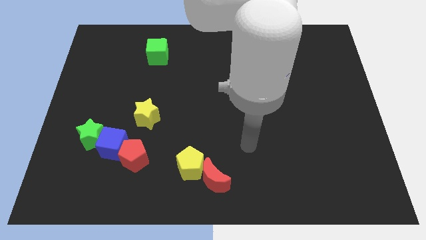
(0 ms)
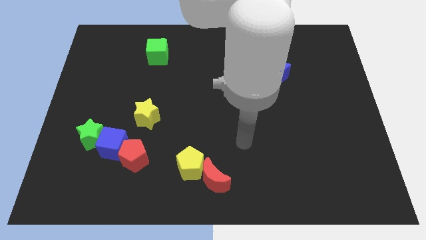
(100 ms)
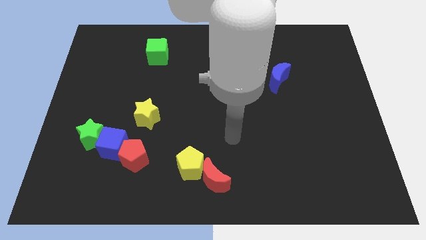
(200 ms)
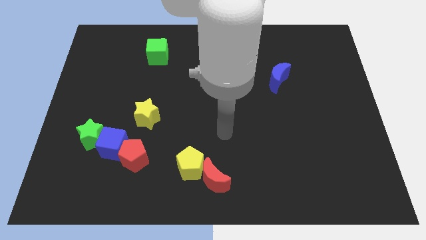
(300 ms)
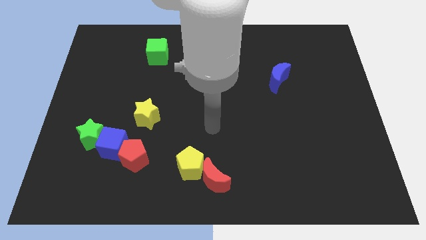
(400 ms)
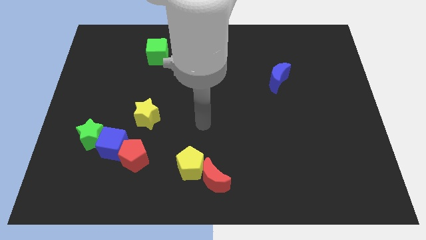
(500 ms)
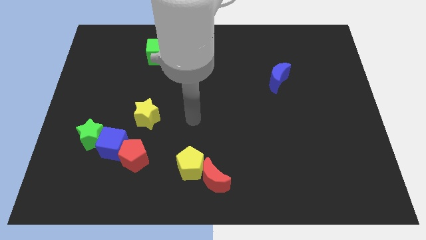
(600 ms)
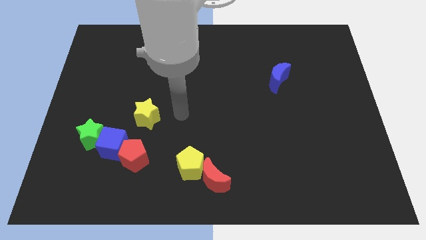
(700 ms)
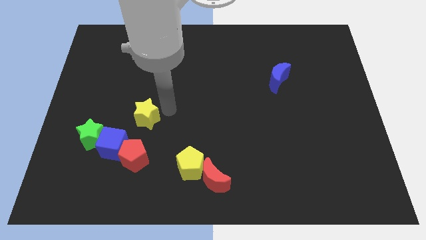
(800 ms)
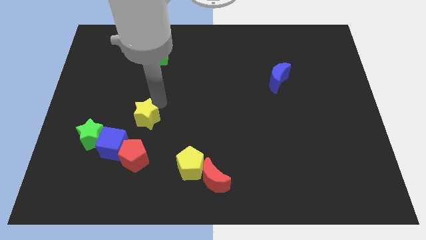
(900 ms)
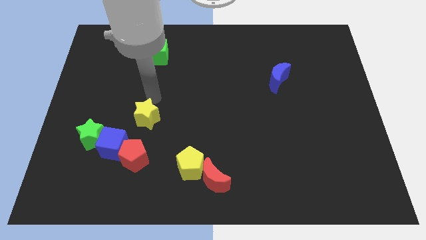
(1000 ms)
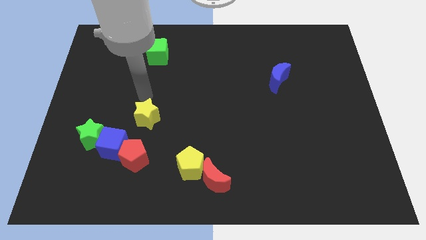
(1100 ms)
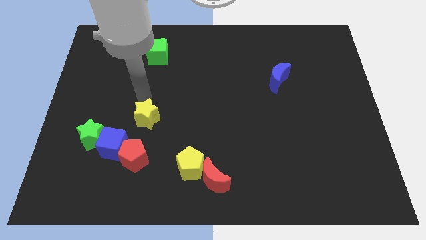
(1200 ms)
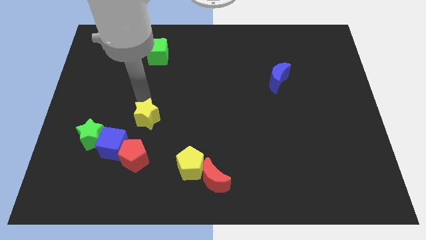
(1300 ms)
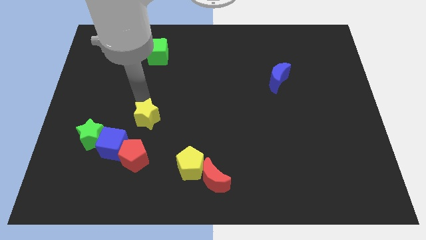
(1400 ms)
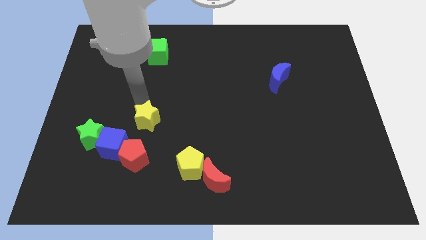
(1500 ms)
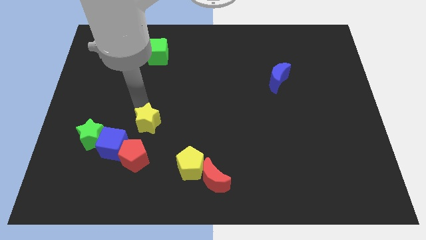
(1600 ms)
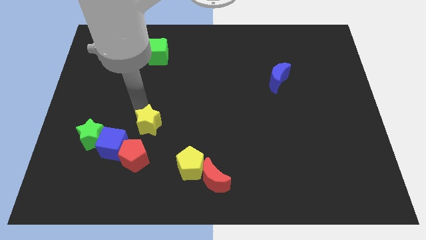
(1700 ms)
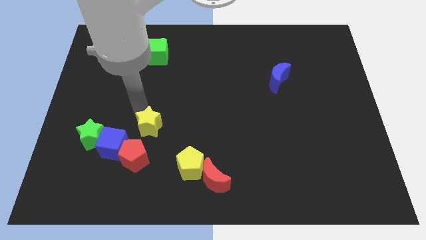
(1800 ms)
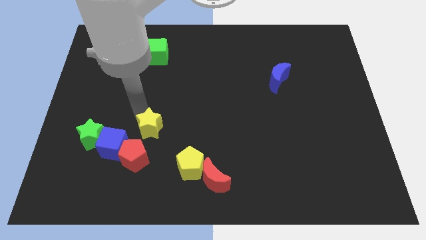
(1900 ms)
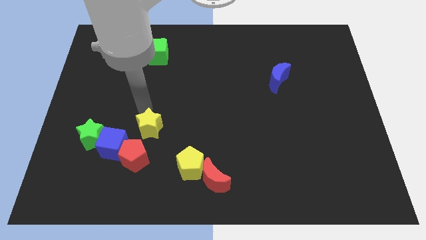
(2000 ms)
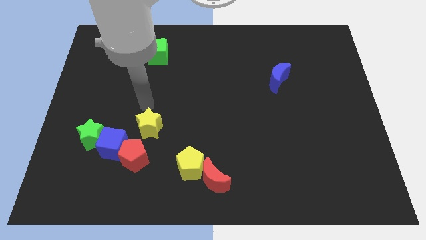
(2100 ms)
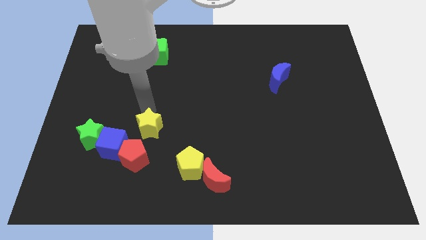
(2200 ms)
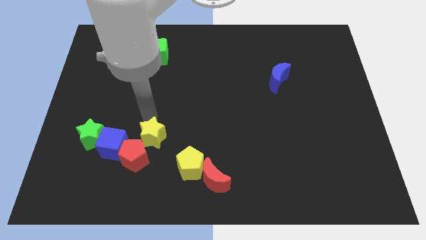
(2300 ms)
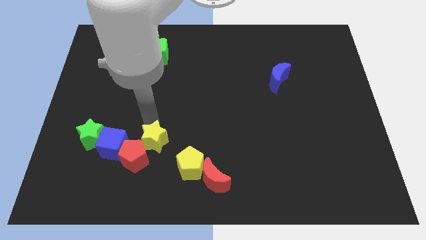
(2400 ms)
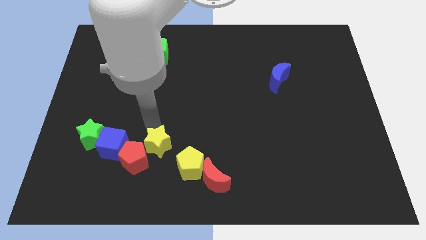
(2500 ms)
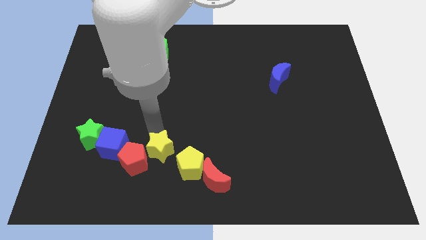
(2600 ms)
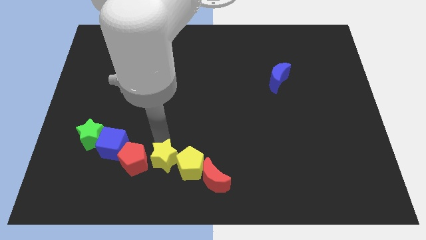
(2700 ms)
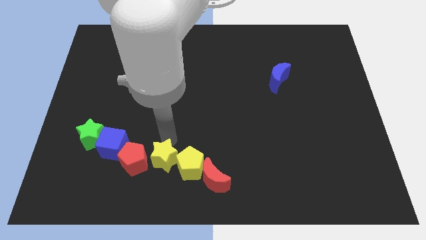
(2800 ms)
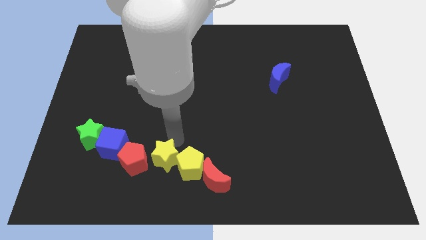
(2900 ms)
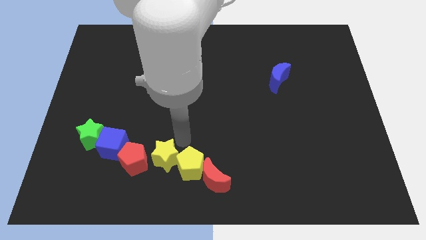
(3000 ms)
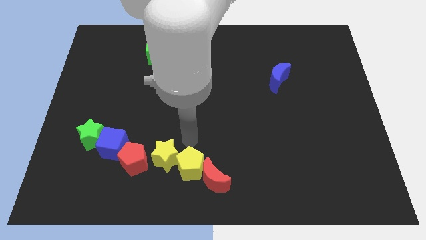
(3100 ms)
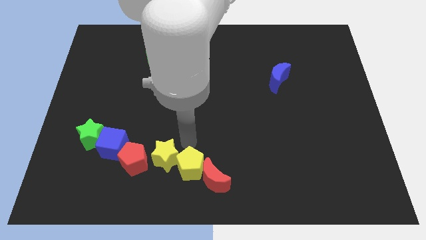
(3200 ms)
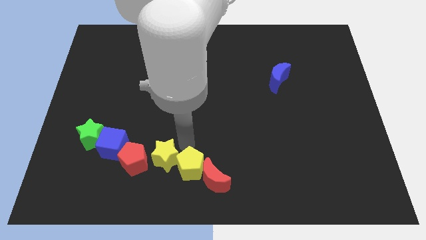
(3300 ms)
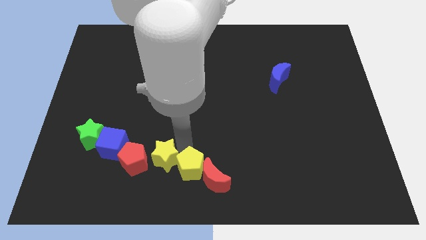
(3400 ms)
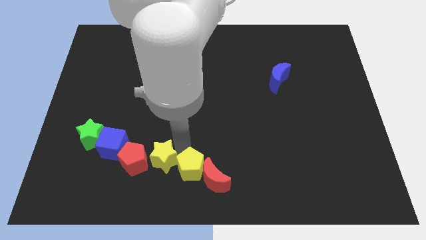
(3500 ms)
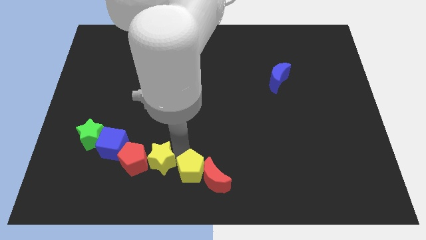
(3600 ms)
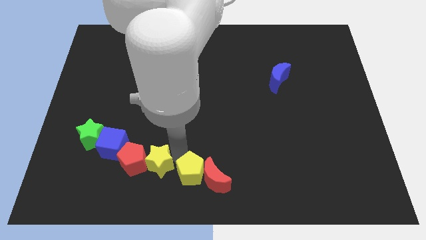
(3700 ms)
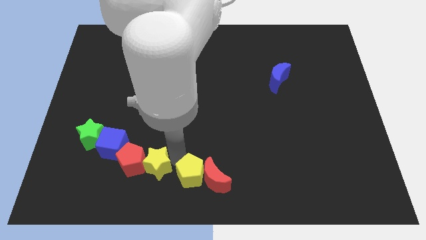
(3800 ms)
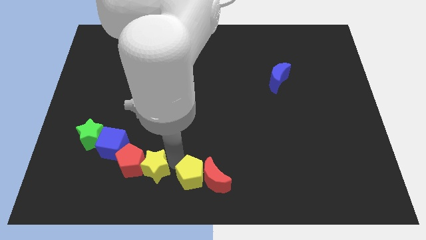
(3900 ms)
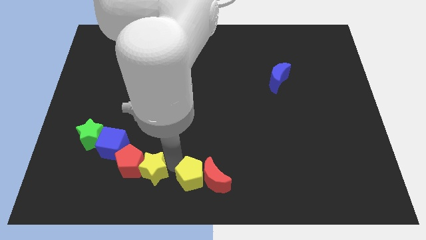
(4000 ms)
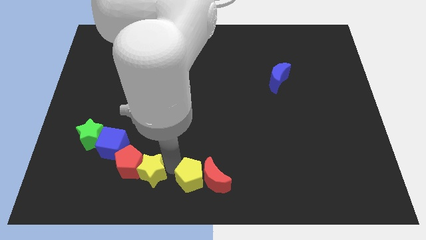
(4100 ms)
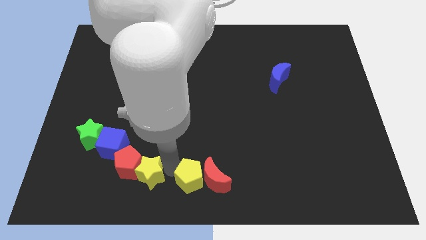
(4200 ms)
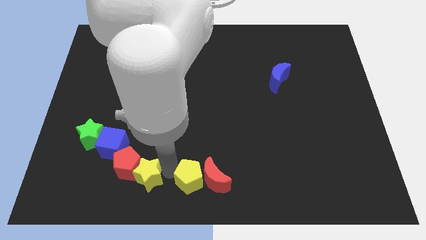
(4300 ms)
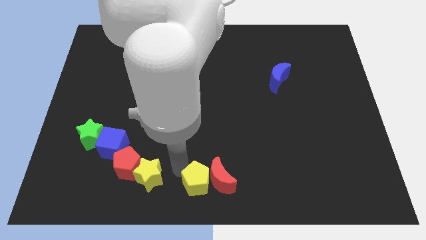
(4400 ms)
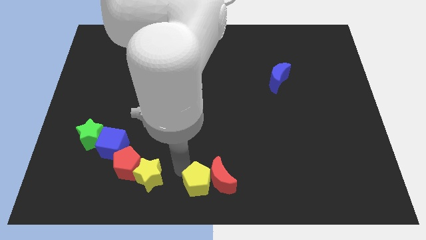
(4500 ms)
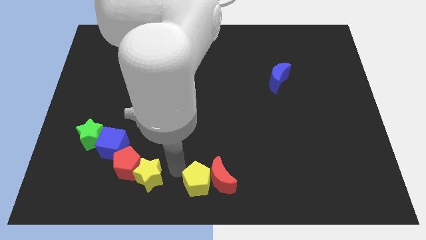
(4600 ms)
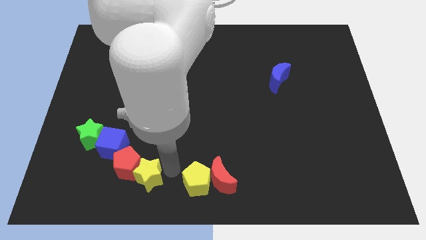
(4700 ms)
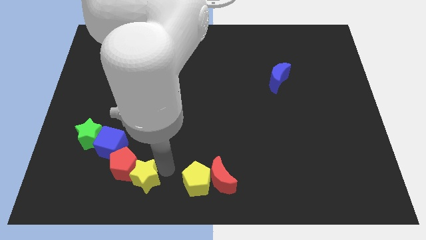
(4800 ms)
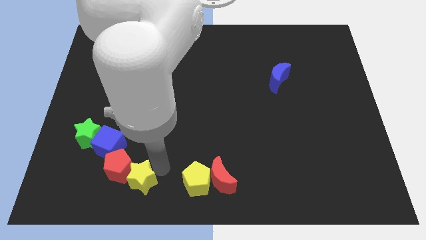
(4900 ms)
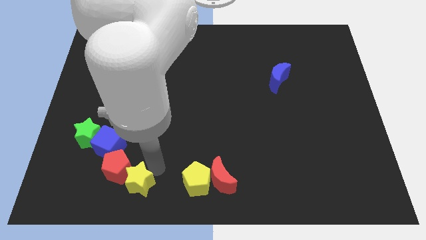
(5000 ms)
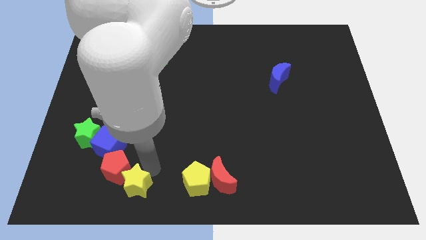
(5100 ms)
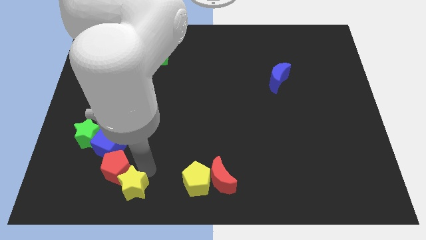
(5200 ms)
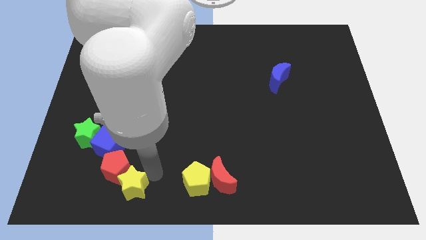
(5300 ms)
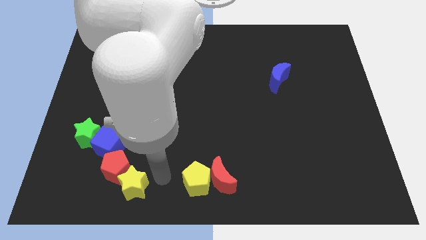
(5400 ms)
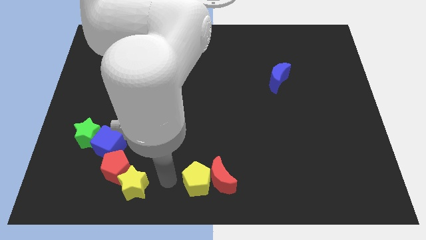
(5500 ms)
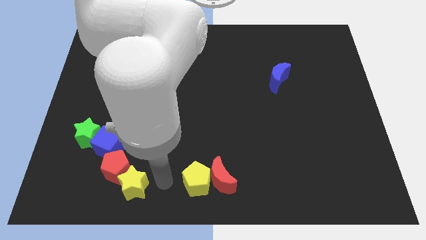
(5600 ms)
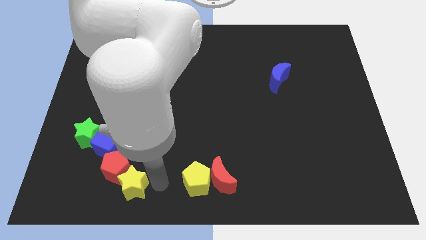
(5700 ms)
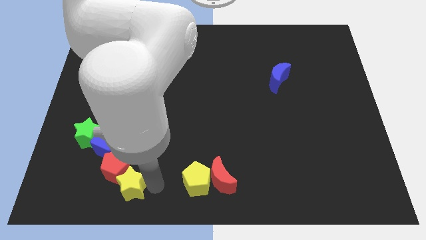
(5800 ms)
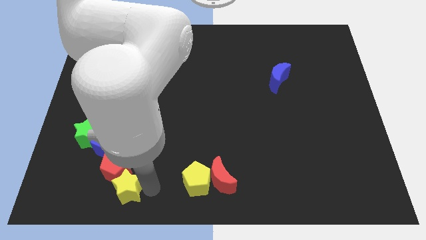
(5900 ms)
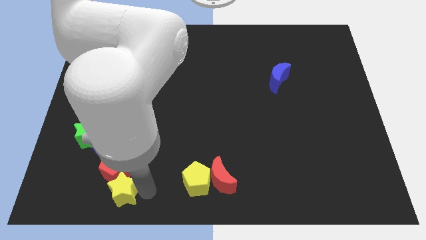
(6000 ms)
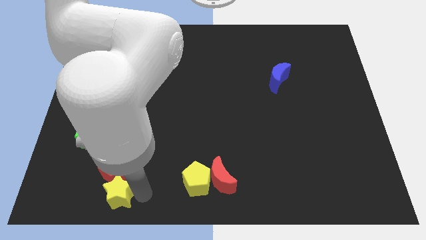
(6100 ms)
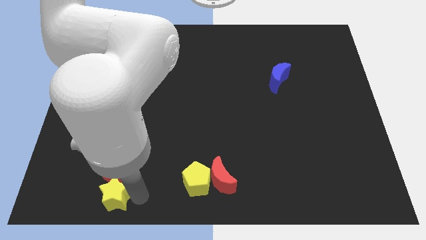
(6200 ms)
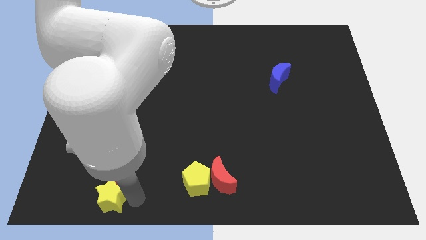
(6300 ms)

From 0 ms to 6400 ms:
put the yellow star to the bottom left of the red pentagon

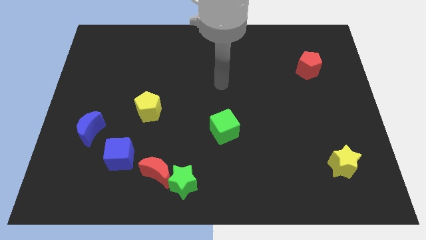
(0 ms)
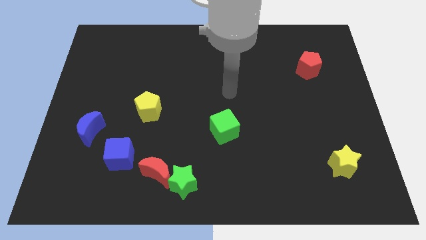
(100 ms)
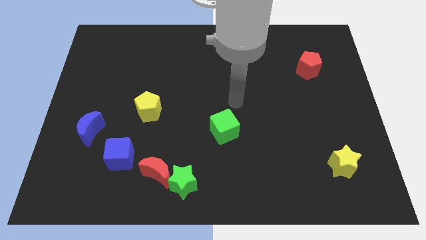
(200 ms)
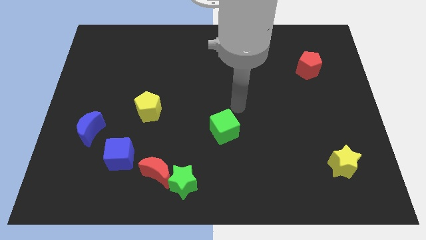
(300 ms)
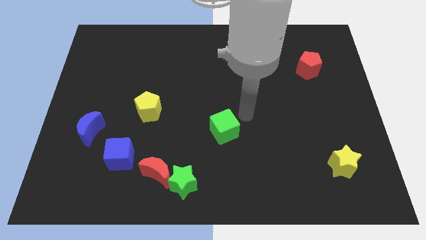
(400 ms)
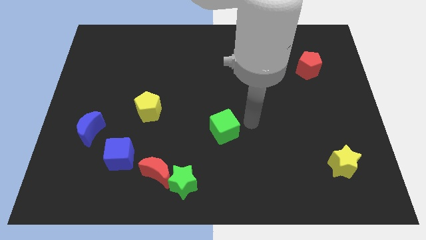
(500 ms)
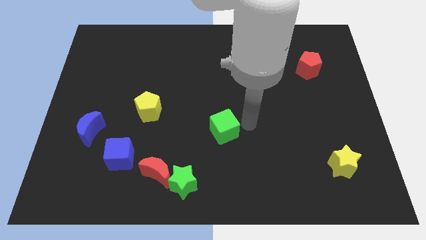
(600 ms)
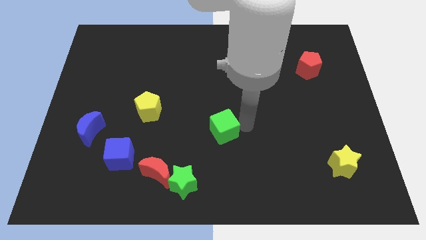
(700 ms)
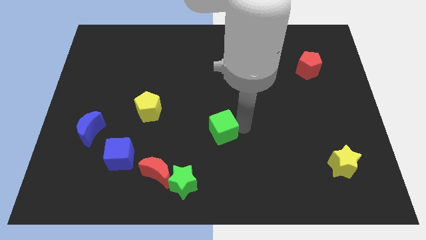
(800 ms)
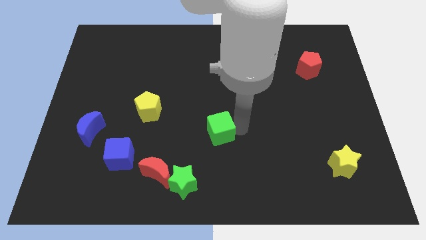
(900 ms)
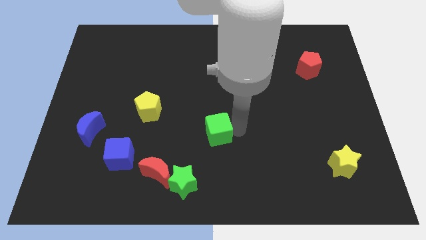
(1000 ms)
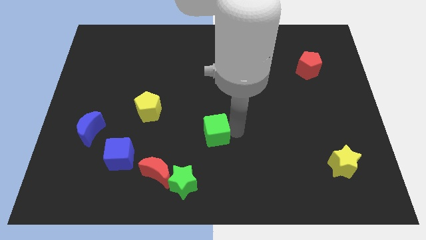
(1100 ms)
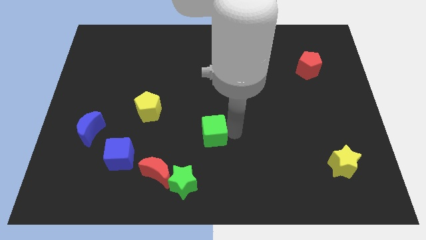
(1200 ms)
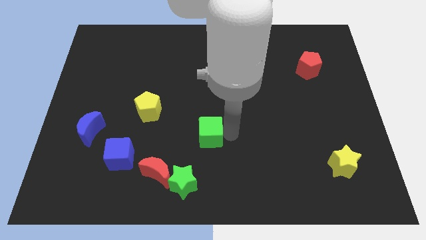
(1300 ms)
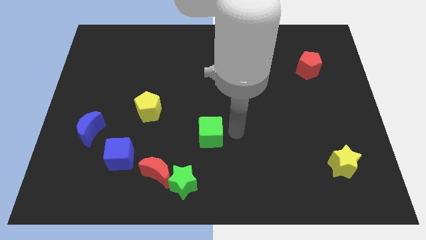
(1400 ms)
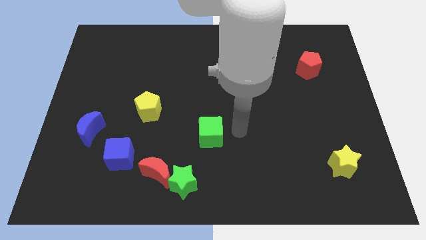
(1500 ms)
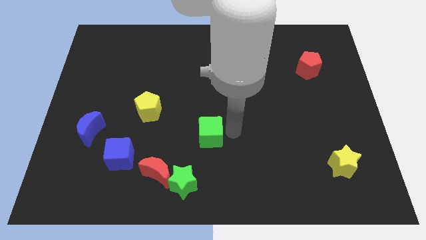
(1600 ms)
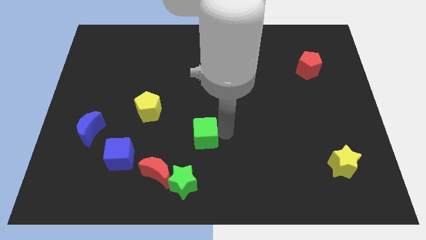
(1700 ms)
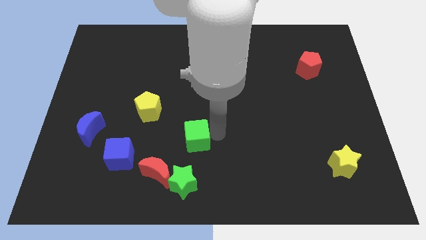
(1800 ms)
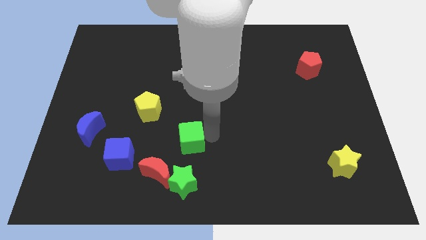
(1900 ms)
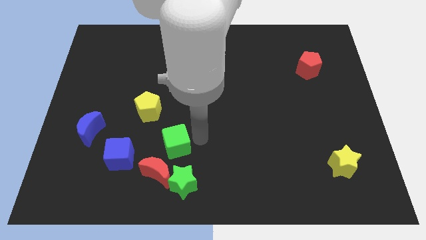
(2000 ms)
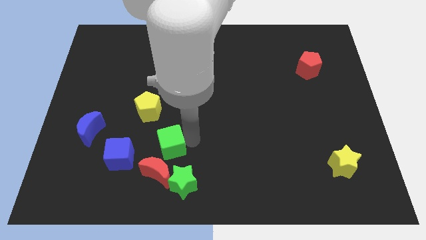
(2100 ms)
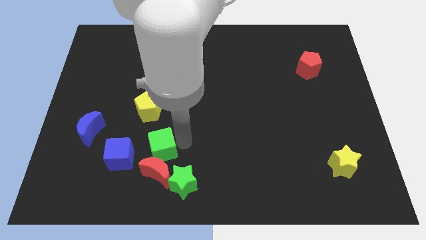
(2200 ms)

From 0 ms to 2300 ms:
move the green cube to the bottom side of the yellow pentagon
